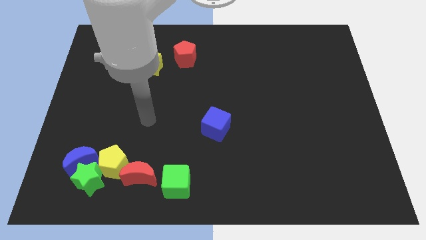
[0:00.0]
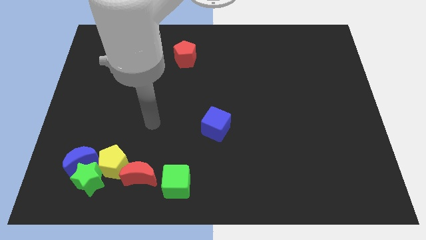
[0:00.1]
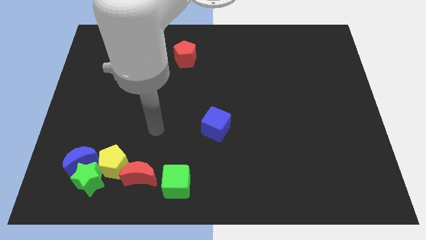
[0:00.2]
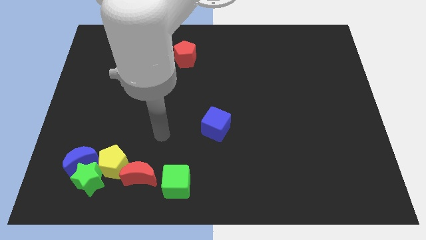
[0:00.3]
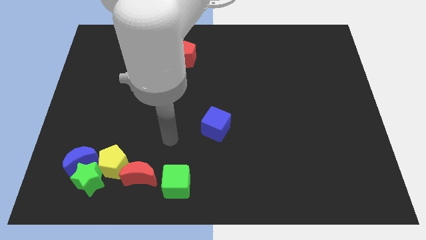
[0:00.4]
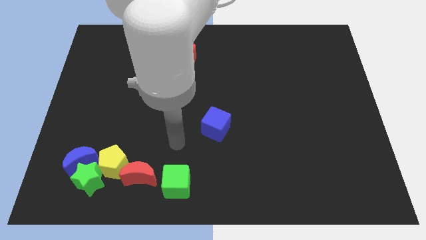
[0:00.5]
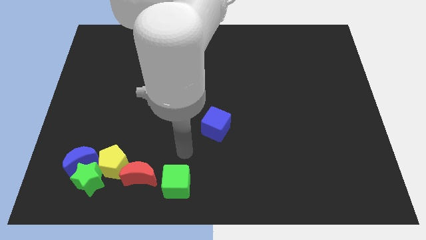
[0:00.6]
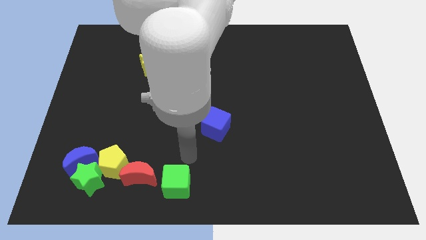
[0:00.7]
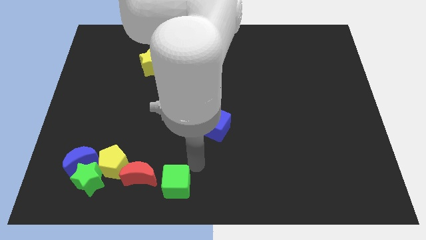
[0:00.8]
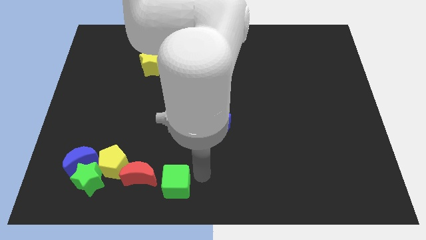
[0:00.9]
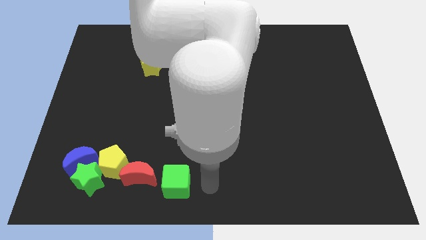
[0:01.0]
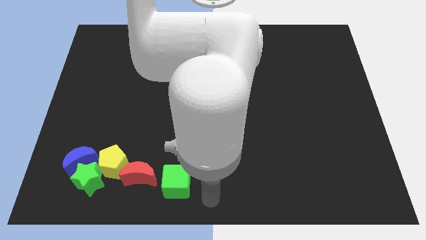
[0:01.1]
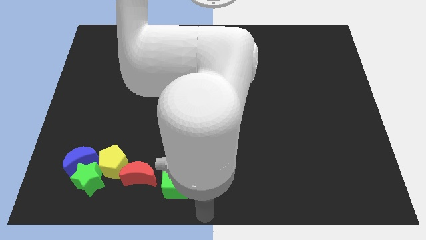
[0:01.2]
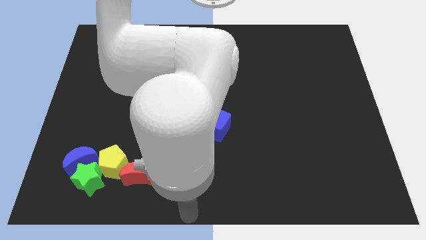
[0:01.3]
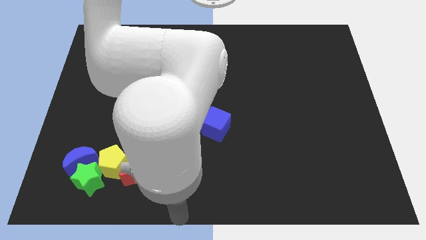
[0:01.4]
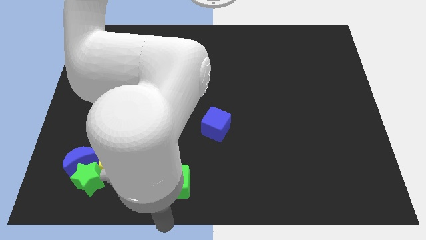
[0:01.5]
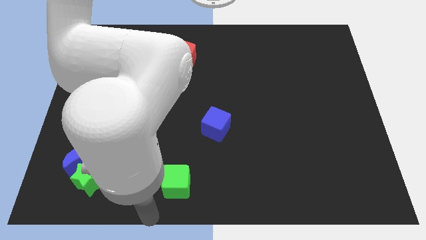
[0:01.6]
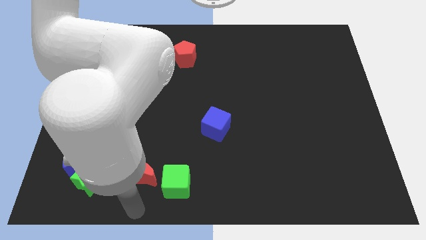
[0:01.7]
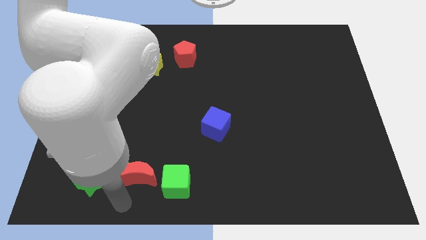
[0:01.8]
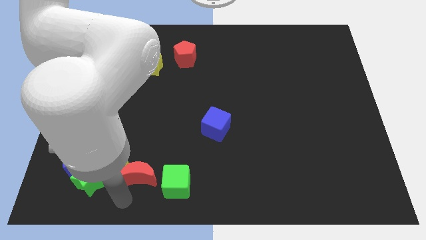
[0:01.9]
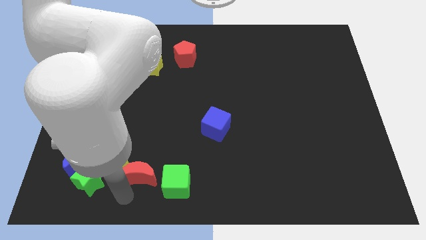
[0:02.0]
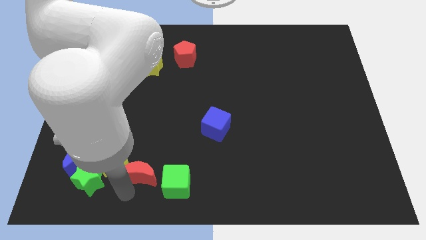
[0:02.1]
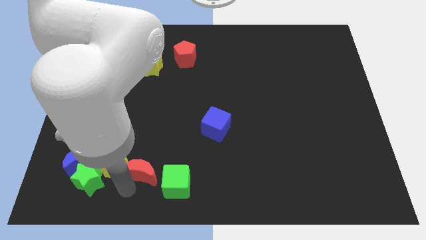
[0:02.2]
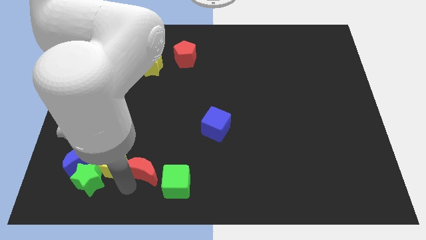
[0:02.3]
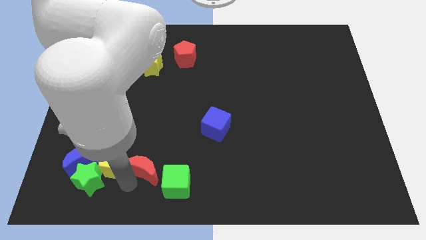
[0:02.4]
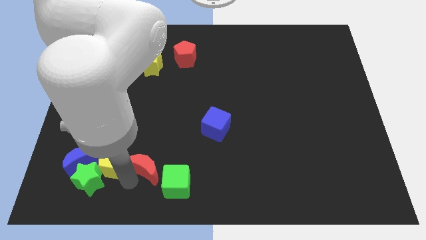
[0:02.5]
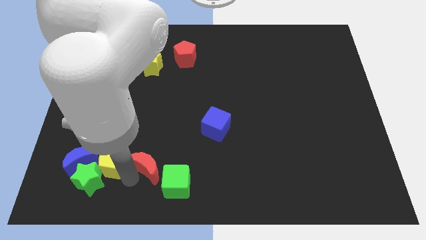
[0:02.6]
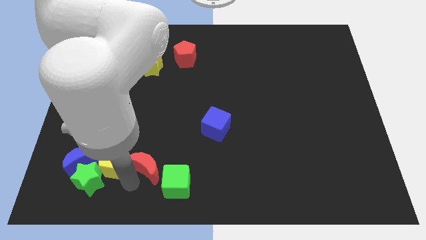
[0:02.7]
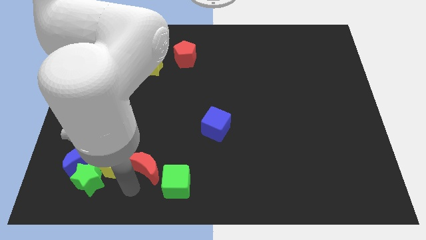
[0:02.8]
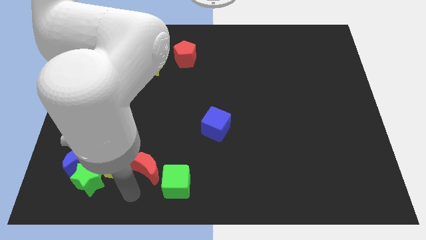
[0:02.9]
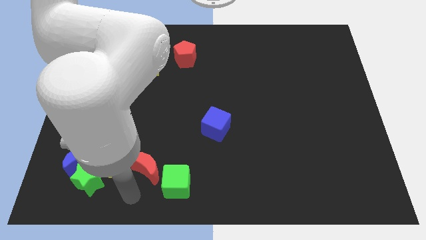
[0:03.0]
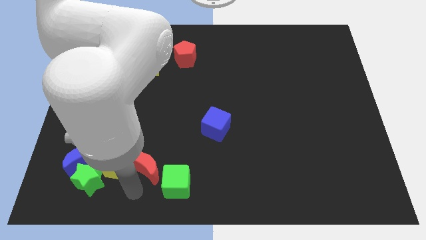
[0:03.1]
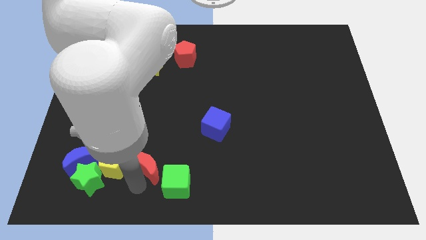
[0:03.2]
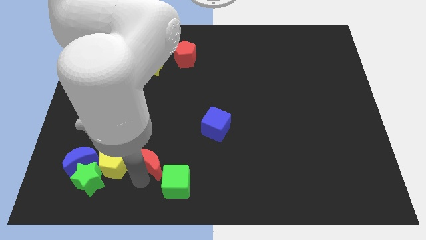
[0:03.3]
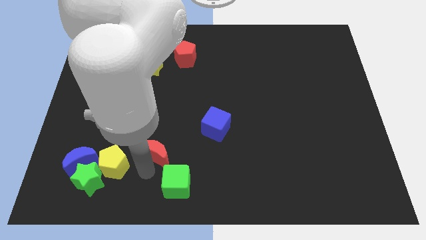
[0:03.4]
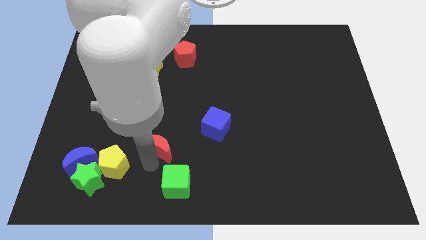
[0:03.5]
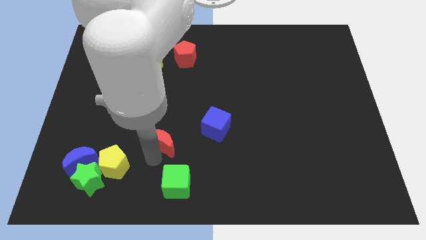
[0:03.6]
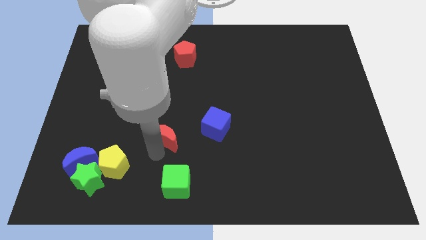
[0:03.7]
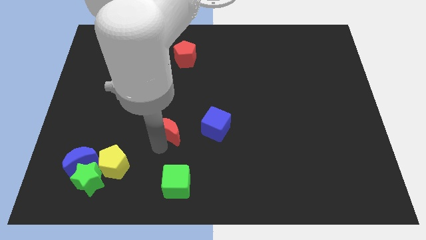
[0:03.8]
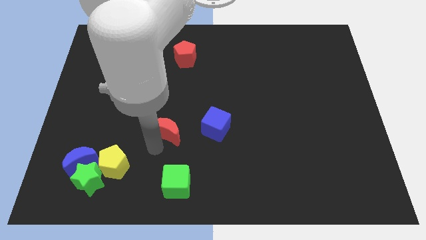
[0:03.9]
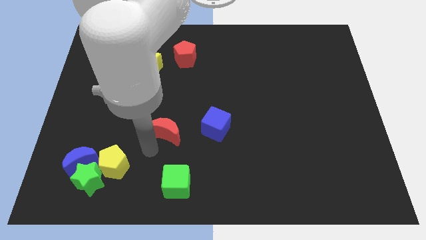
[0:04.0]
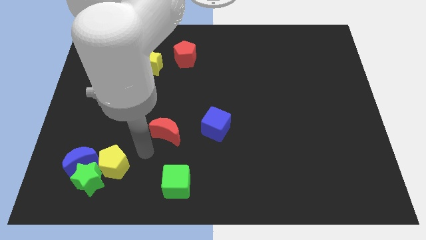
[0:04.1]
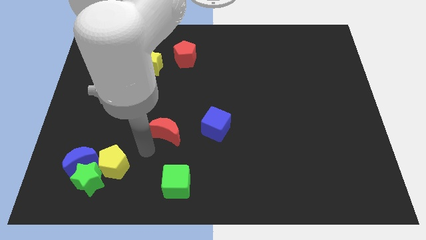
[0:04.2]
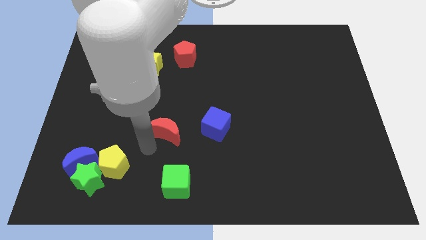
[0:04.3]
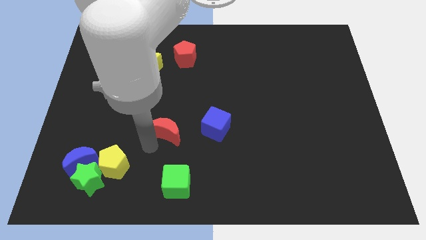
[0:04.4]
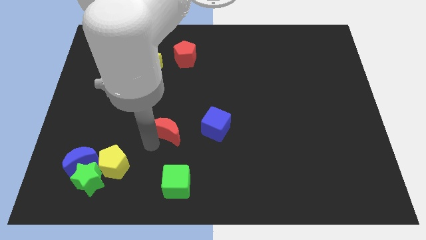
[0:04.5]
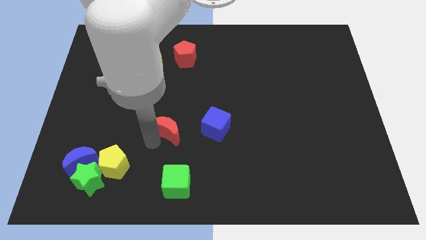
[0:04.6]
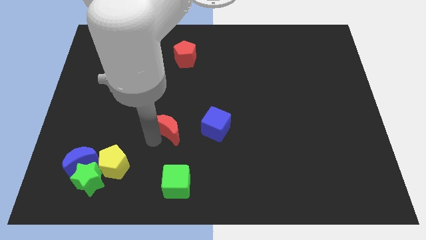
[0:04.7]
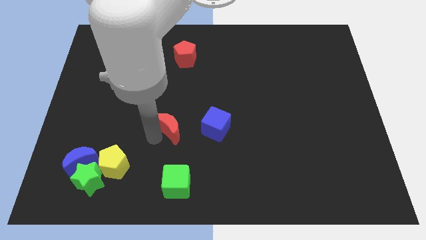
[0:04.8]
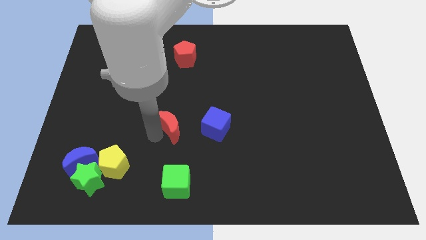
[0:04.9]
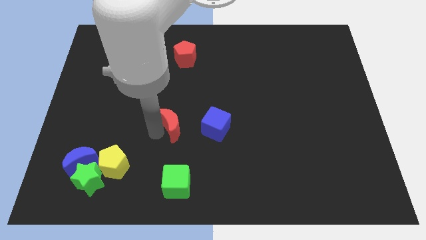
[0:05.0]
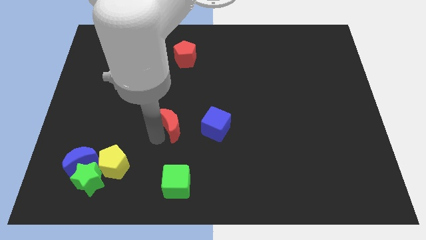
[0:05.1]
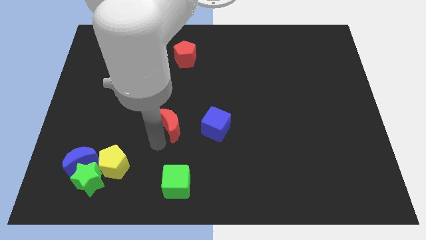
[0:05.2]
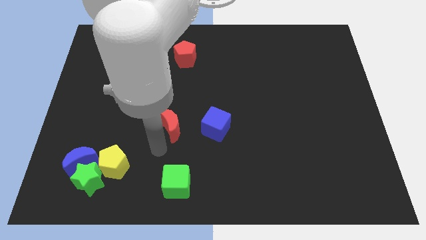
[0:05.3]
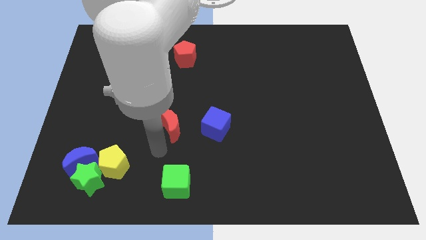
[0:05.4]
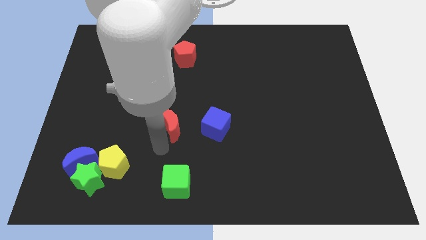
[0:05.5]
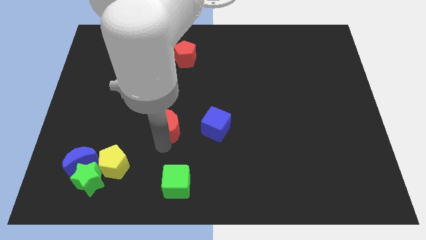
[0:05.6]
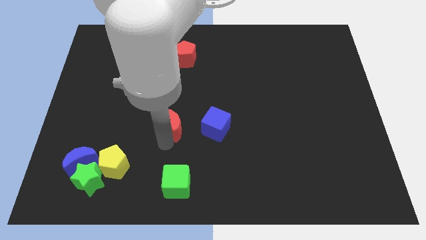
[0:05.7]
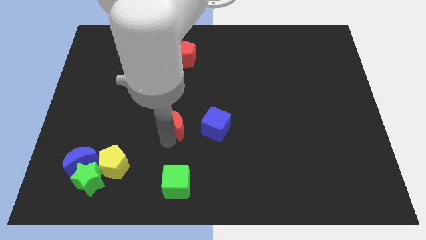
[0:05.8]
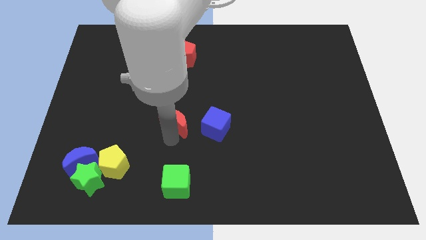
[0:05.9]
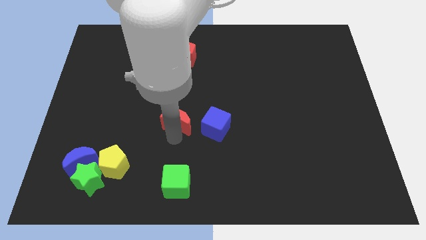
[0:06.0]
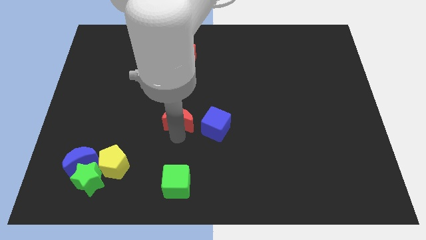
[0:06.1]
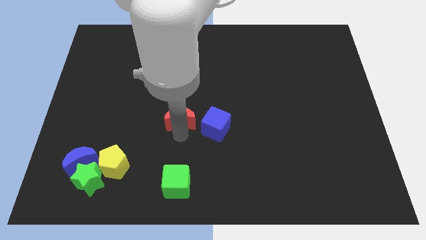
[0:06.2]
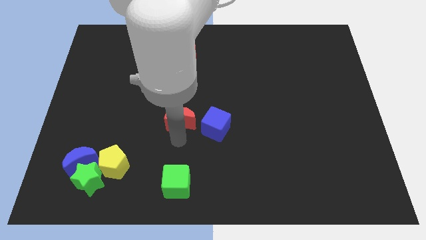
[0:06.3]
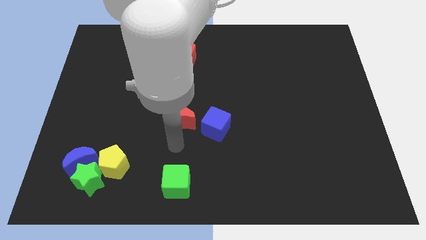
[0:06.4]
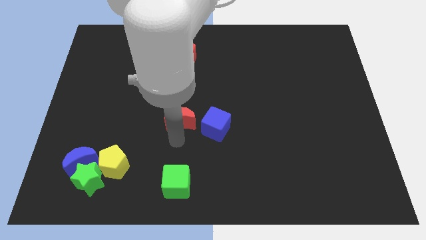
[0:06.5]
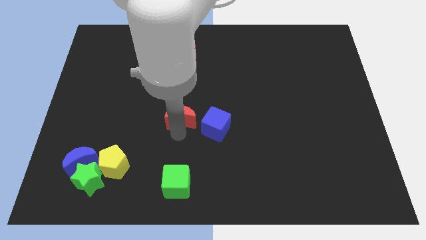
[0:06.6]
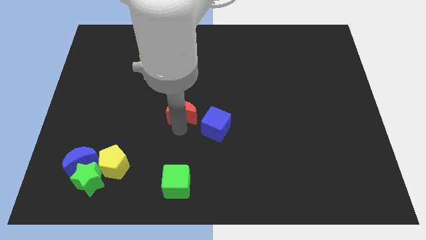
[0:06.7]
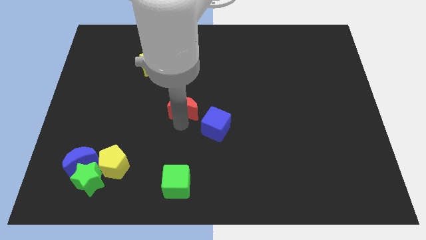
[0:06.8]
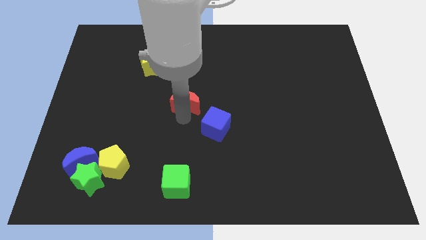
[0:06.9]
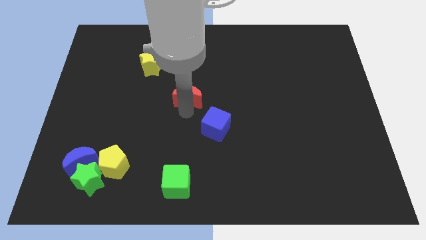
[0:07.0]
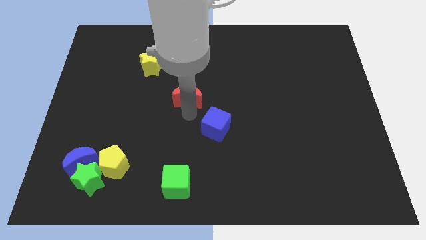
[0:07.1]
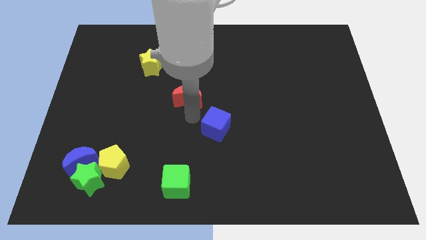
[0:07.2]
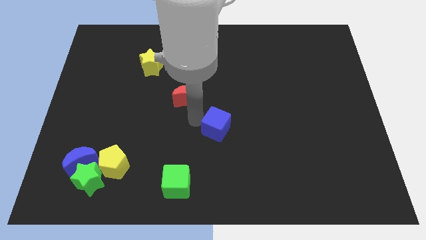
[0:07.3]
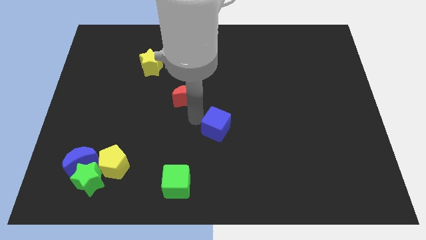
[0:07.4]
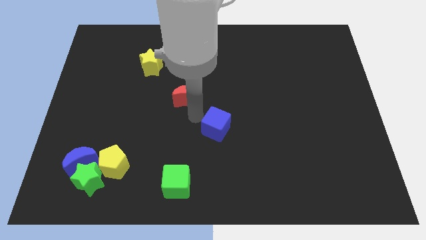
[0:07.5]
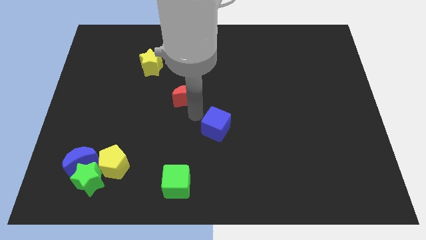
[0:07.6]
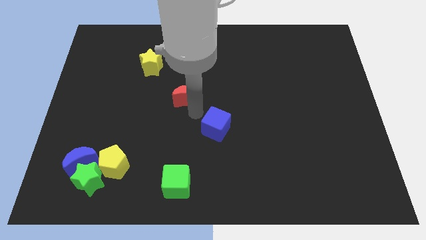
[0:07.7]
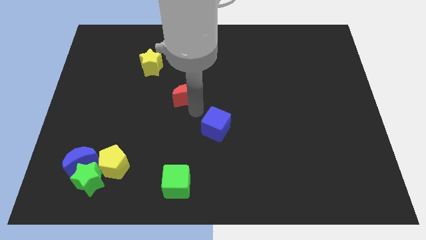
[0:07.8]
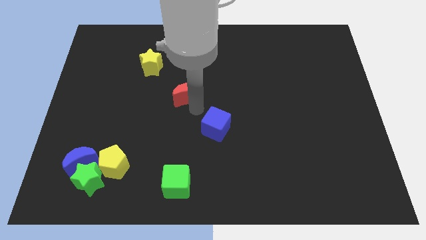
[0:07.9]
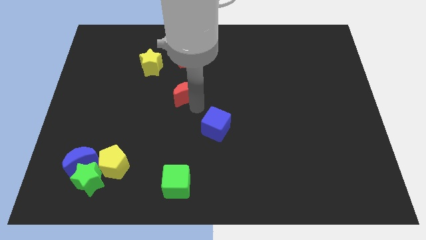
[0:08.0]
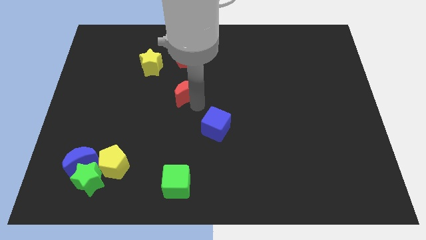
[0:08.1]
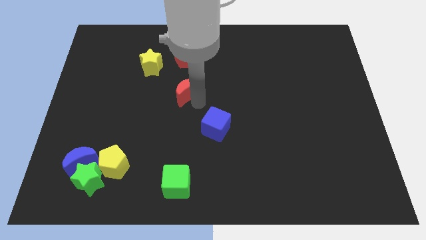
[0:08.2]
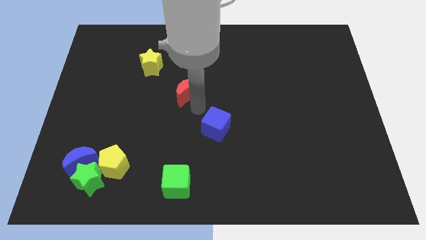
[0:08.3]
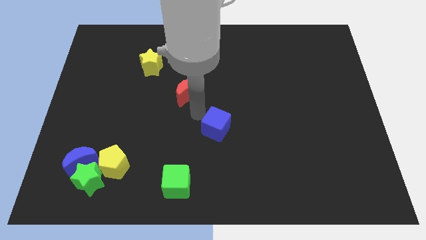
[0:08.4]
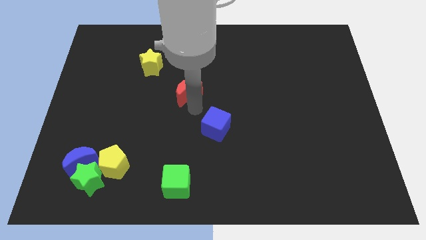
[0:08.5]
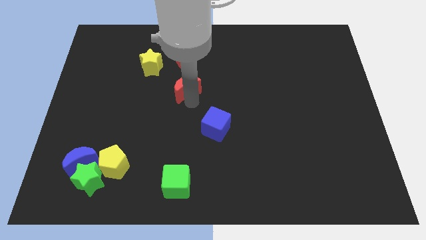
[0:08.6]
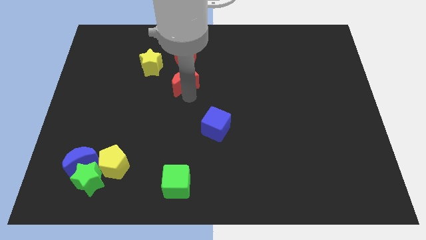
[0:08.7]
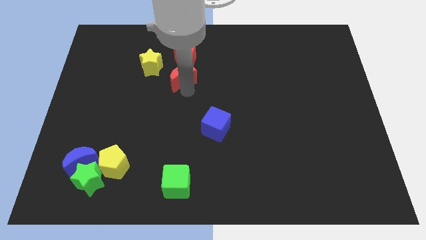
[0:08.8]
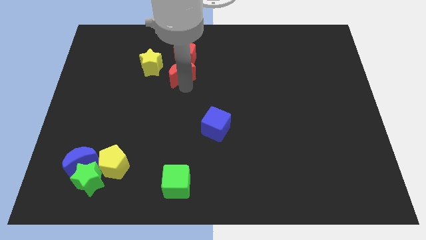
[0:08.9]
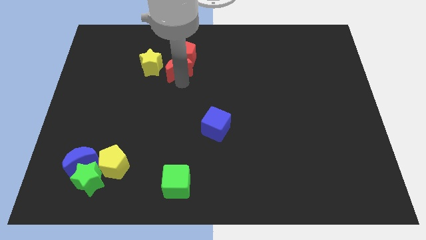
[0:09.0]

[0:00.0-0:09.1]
slide the red moon to the red pentagon
